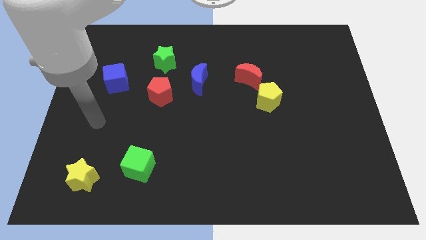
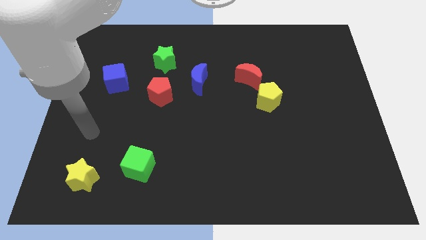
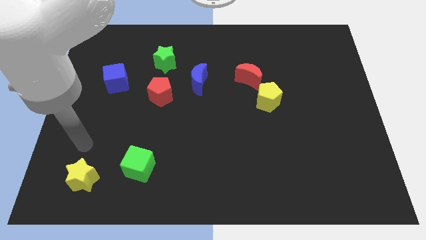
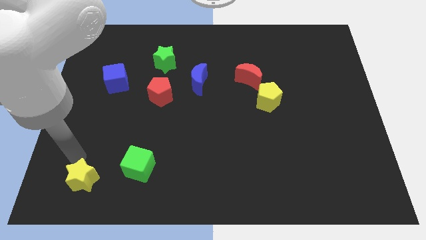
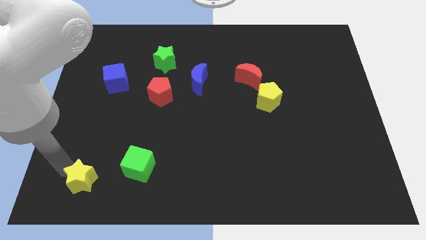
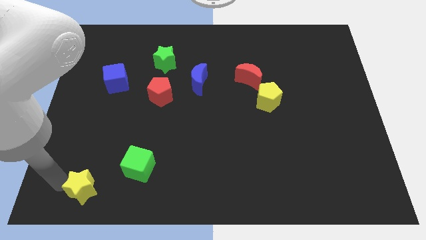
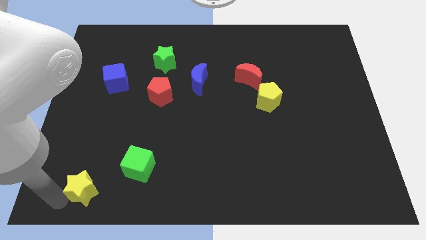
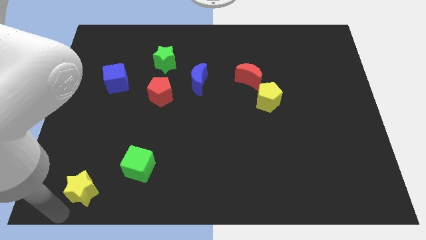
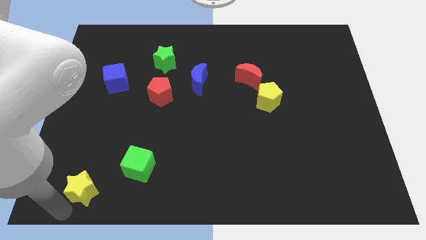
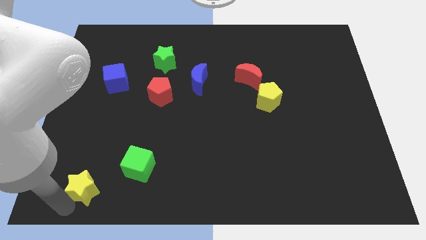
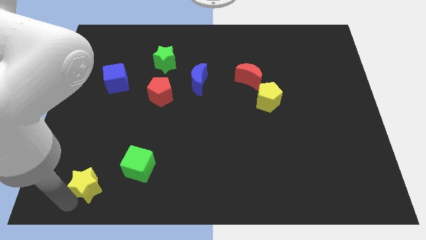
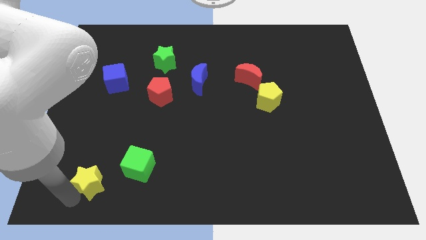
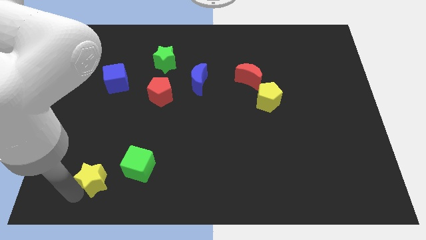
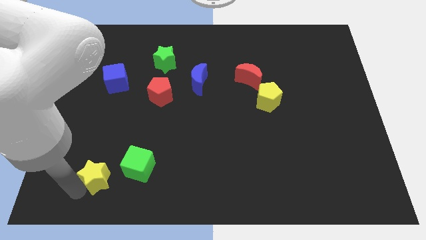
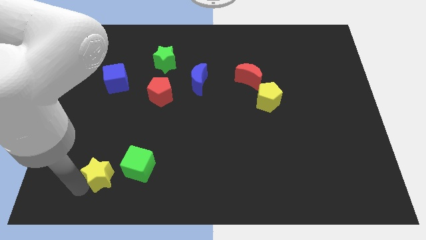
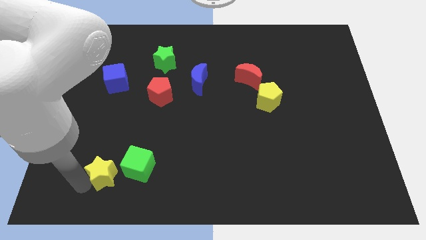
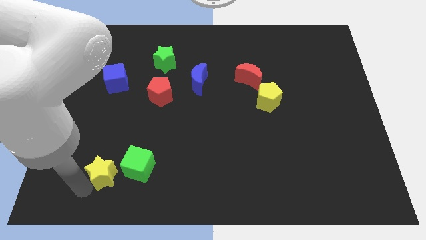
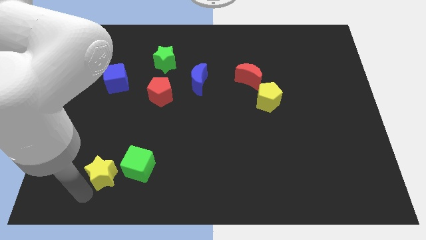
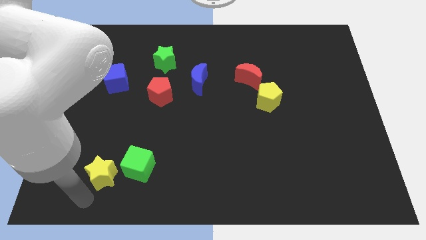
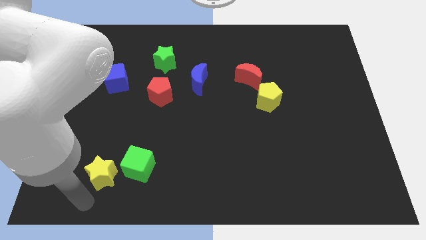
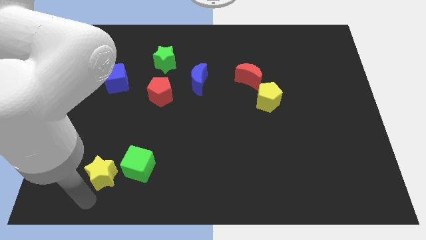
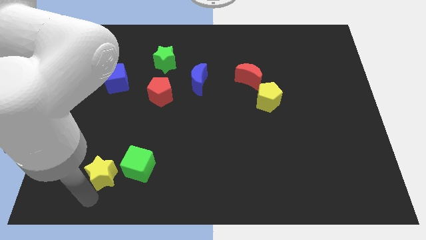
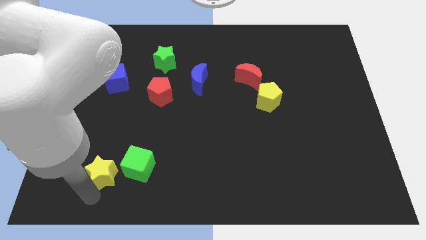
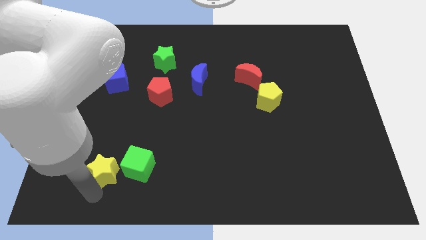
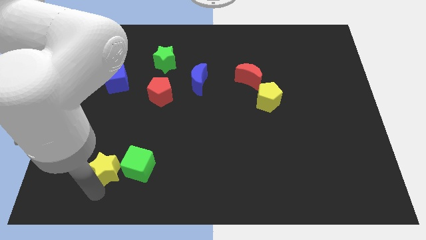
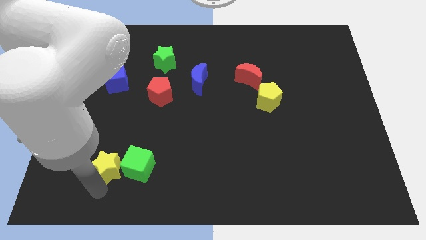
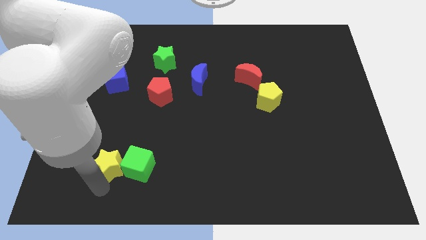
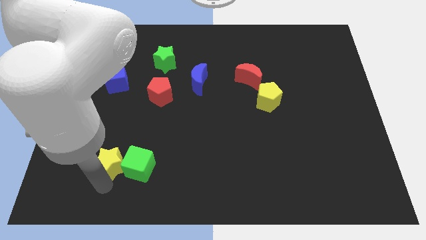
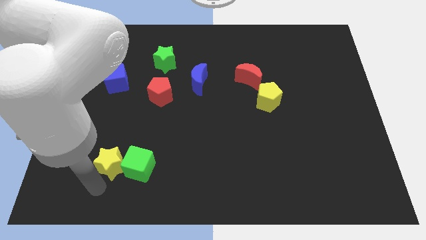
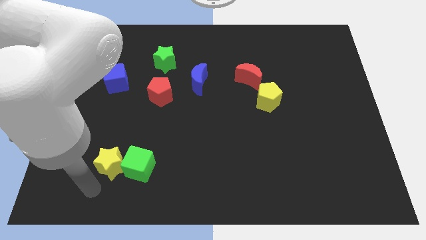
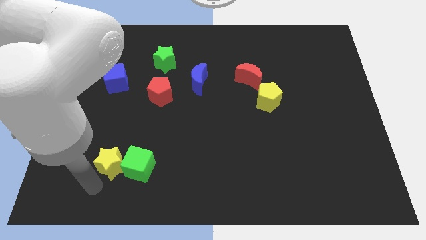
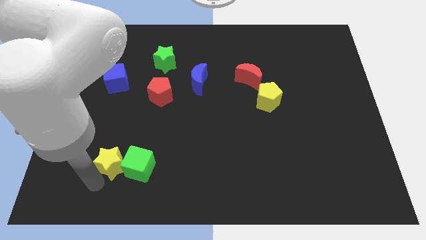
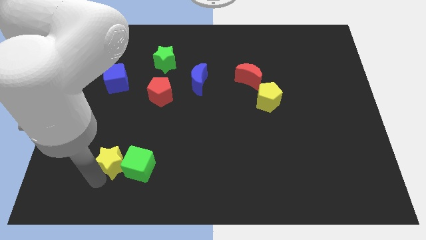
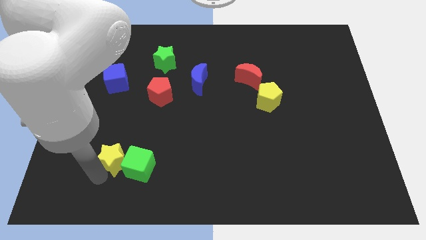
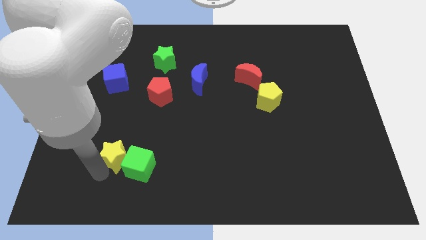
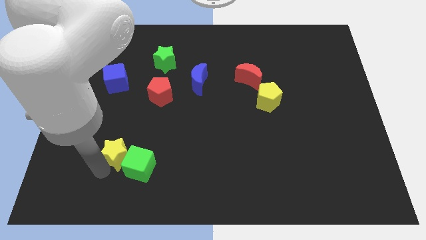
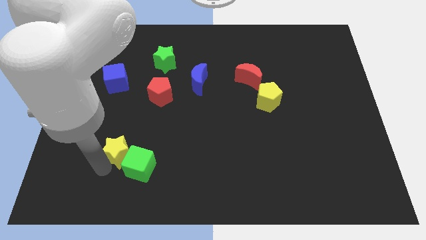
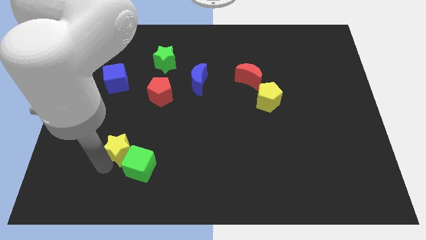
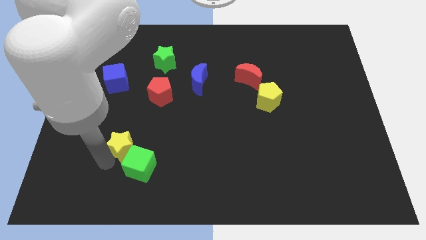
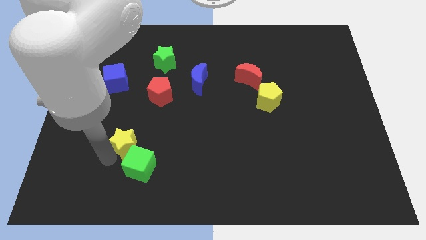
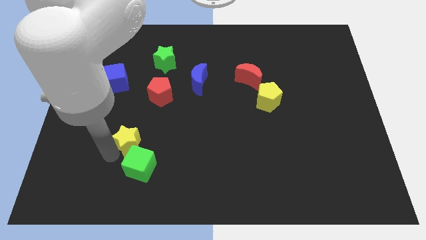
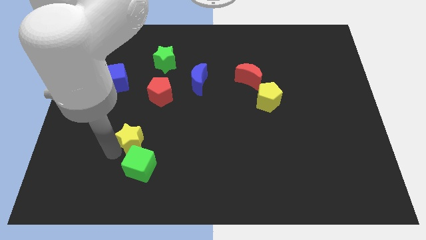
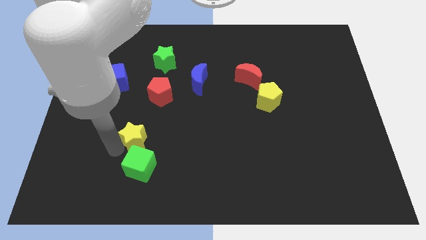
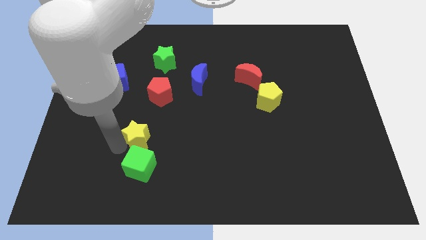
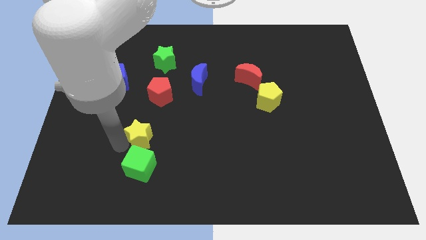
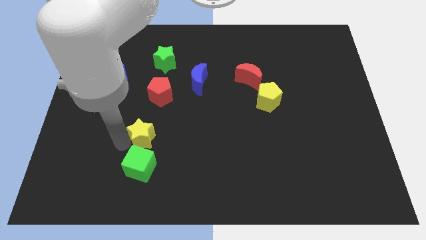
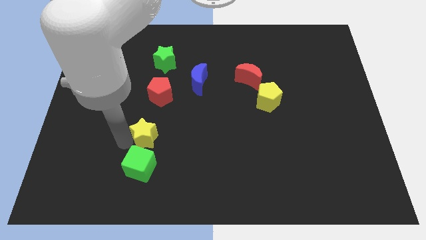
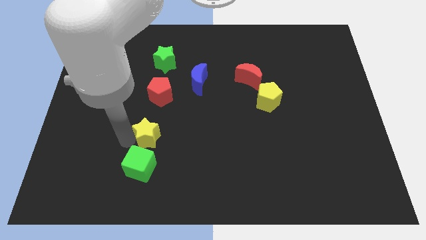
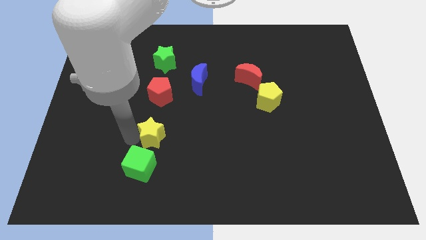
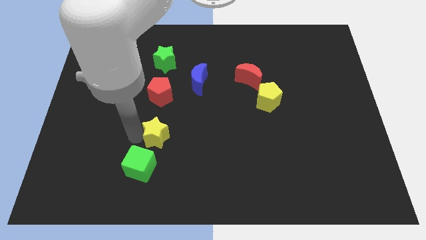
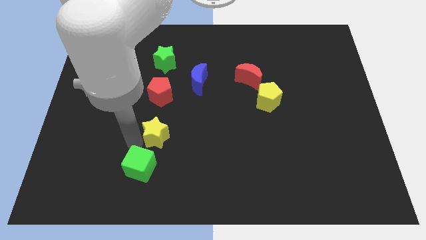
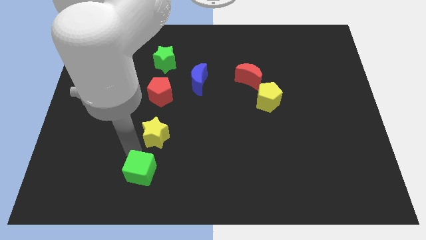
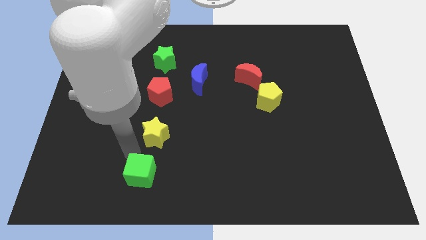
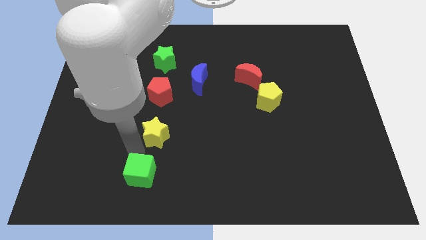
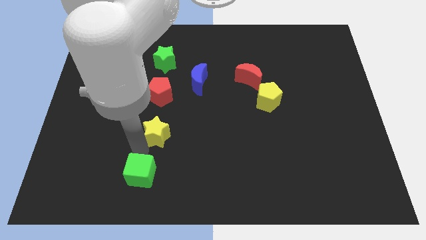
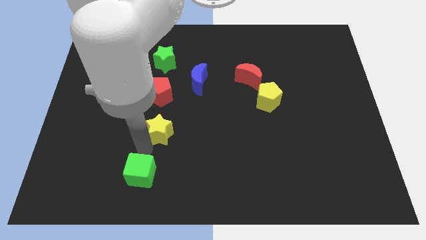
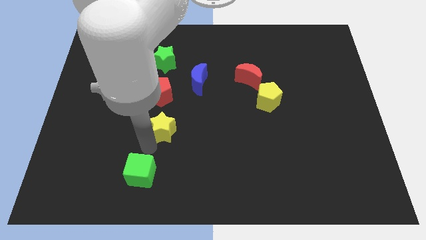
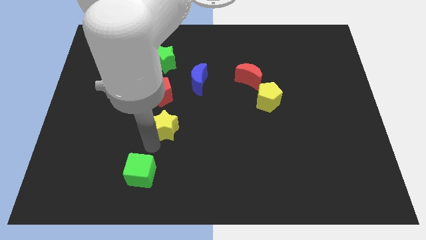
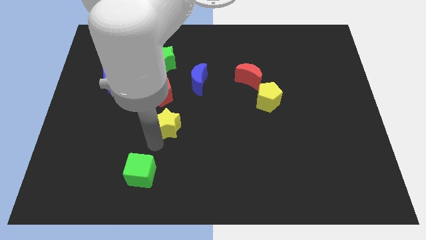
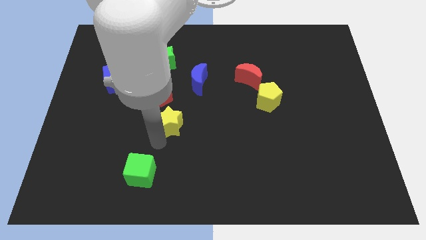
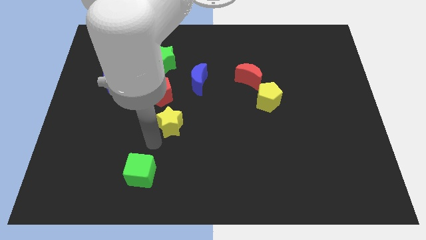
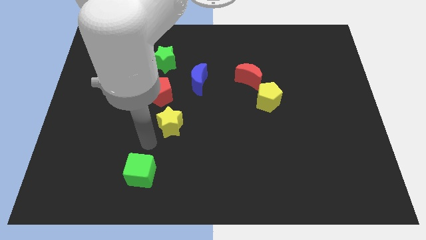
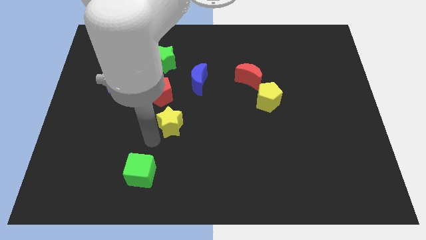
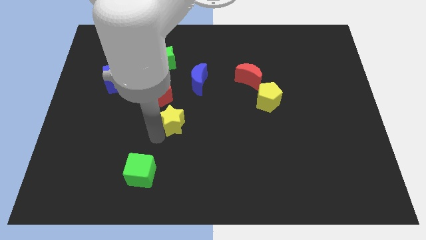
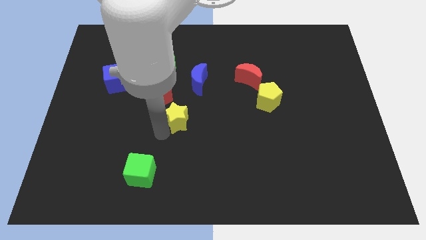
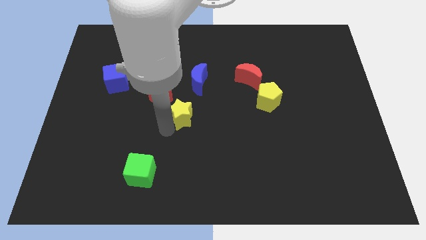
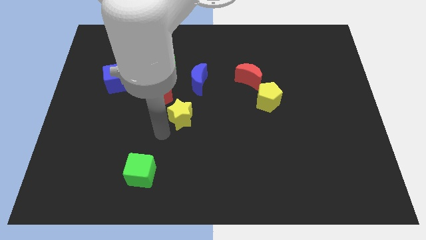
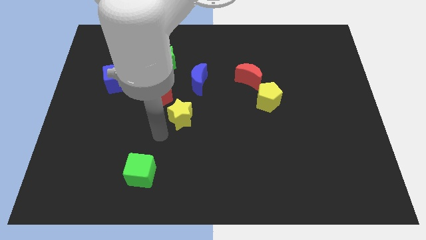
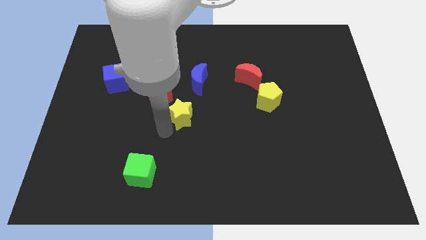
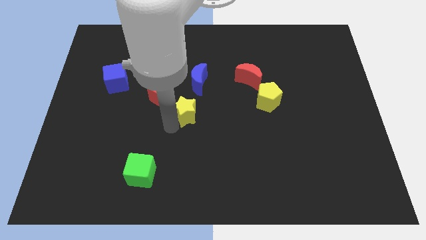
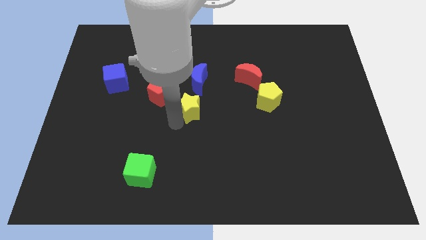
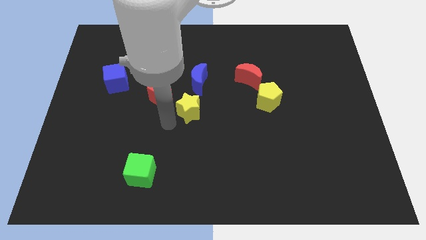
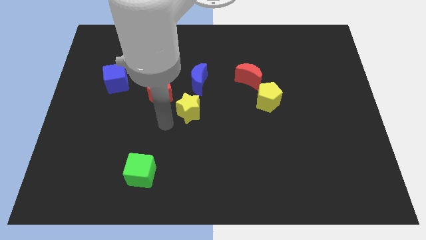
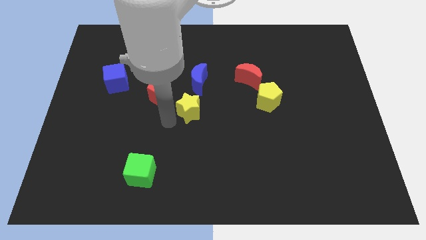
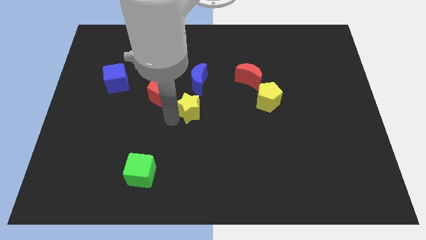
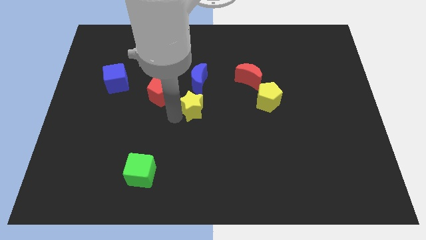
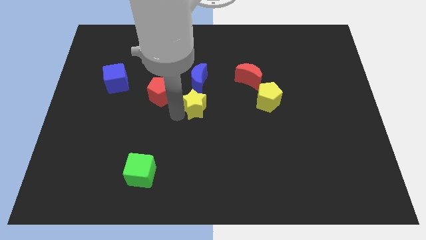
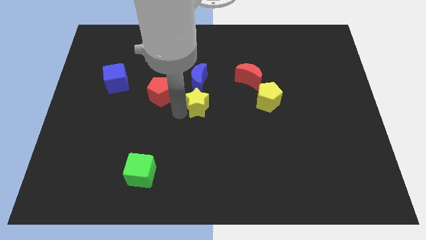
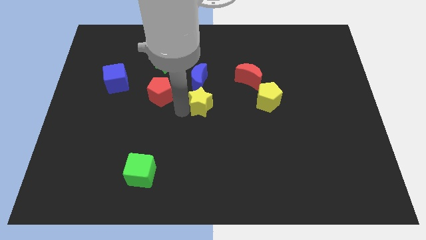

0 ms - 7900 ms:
put the yellow star to the bottom right of the blue moon
